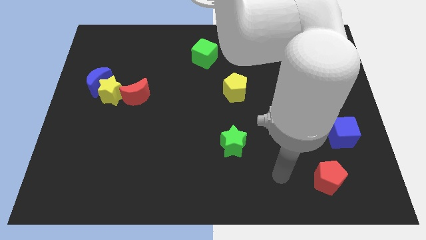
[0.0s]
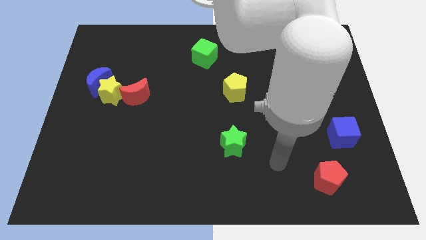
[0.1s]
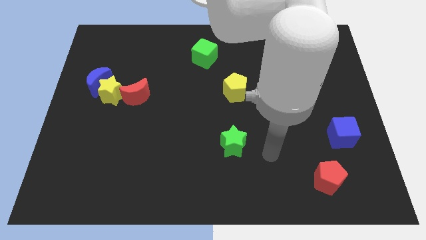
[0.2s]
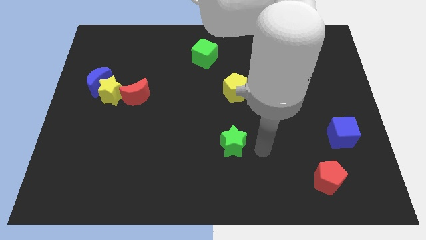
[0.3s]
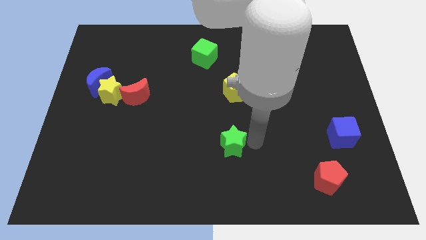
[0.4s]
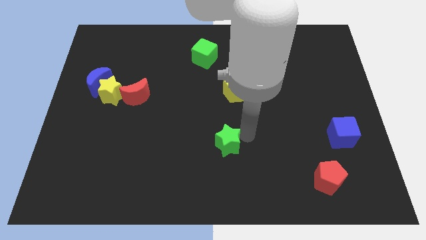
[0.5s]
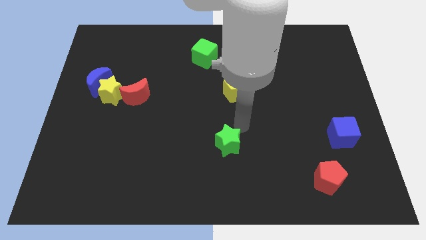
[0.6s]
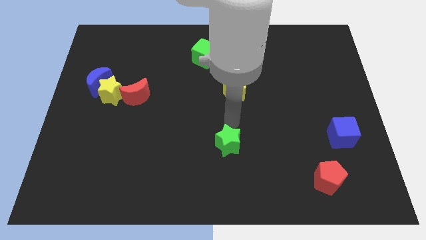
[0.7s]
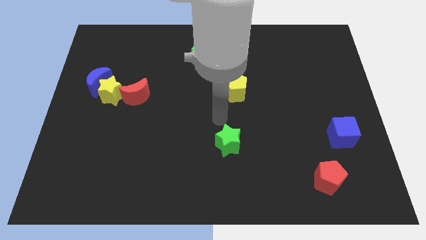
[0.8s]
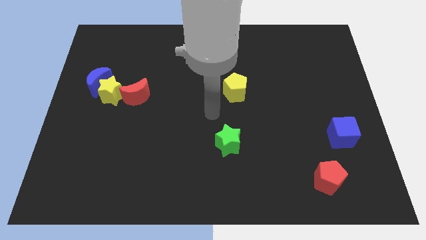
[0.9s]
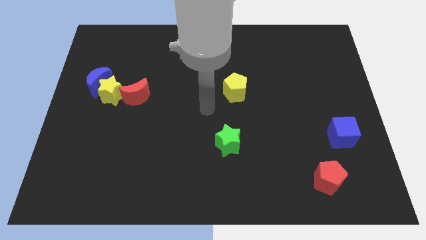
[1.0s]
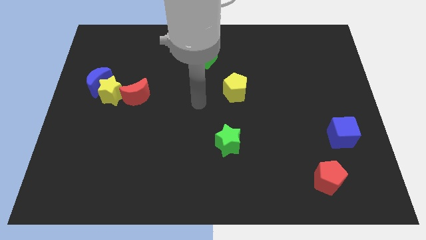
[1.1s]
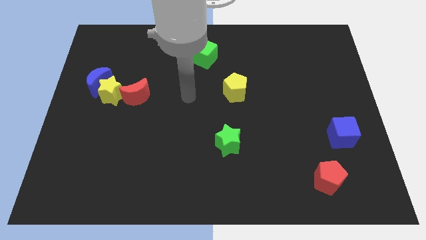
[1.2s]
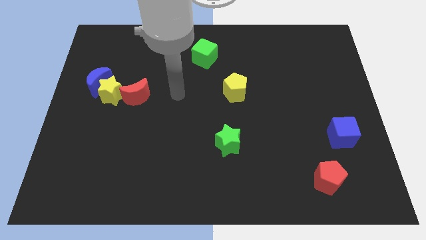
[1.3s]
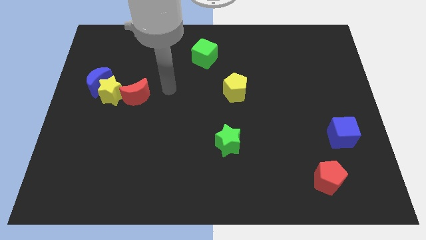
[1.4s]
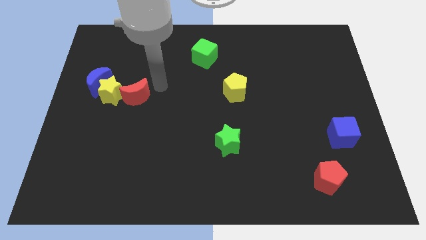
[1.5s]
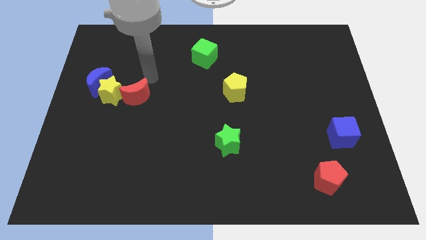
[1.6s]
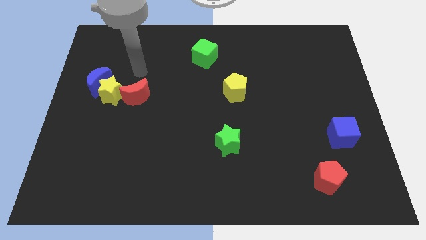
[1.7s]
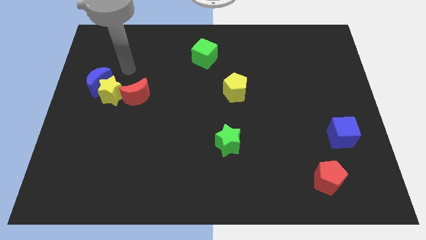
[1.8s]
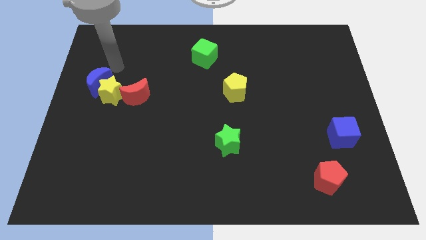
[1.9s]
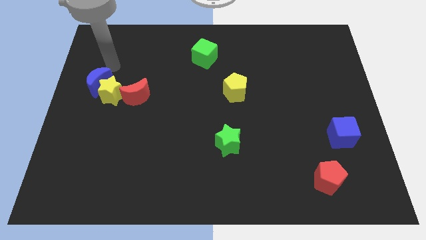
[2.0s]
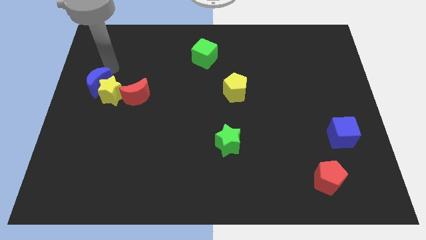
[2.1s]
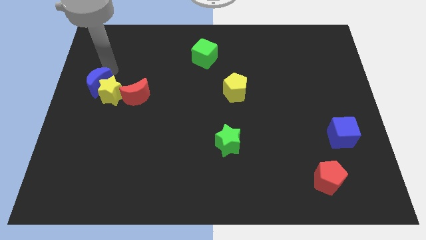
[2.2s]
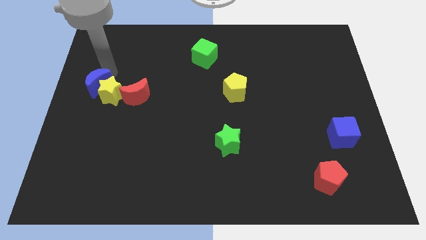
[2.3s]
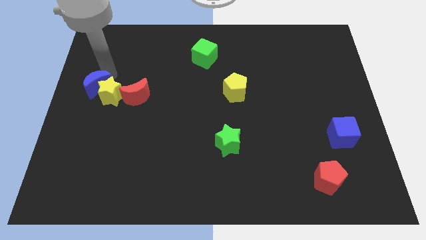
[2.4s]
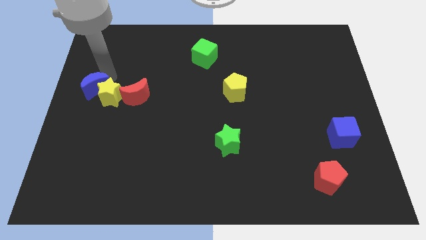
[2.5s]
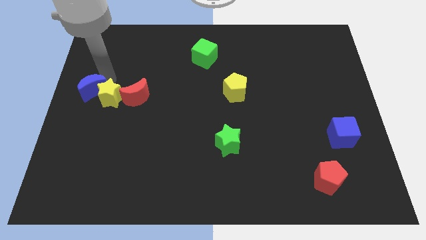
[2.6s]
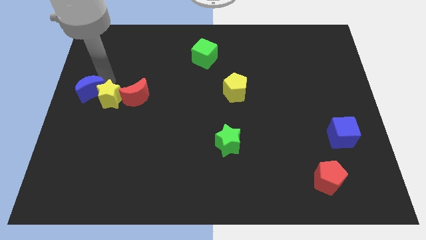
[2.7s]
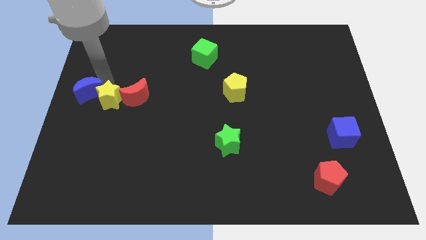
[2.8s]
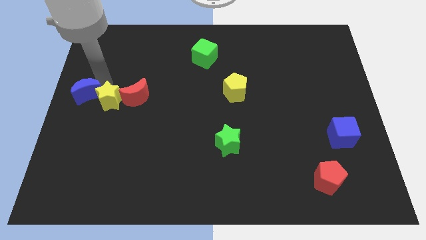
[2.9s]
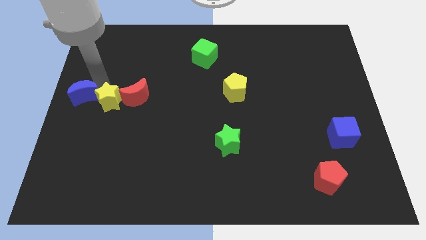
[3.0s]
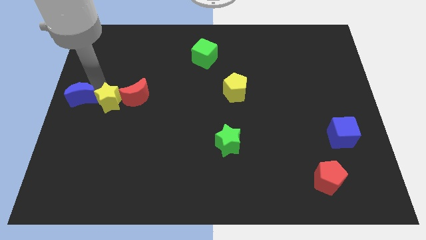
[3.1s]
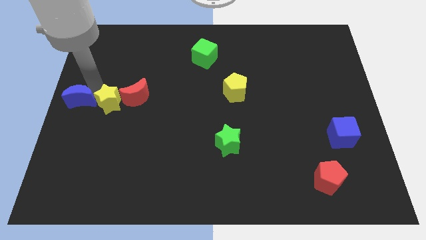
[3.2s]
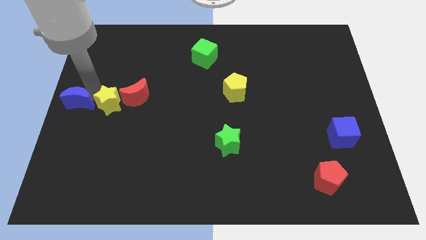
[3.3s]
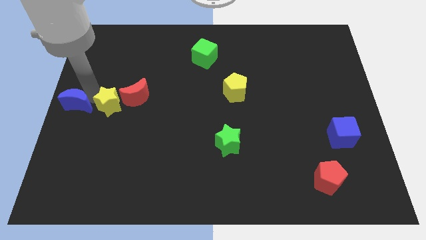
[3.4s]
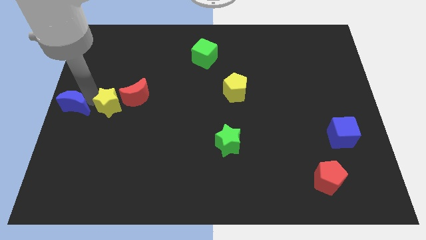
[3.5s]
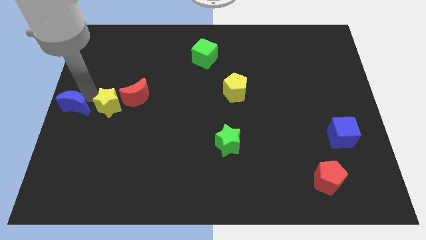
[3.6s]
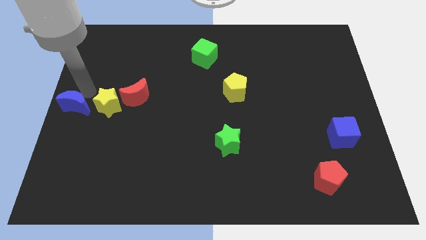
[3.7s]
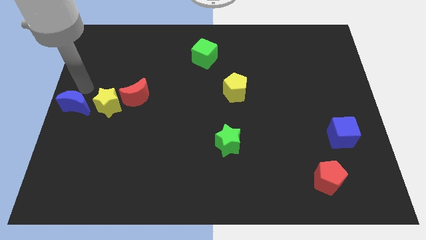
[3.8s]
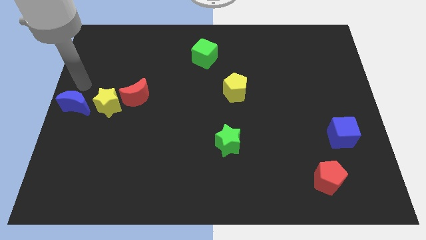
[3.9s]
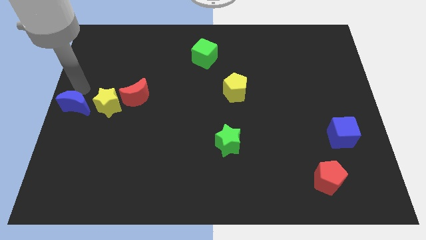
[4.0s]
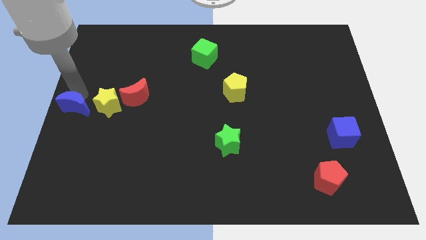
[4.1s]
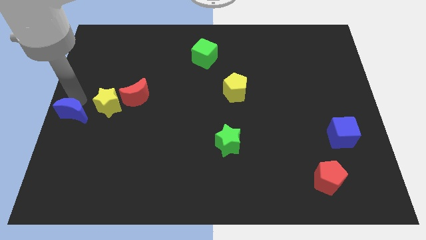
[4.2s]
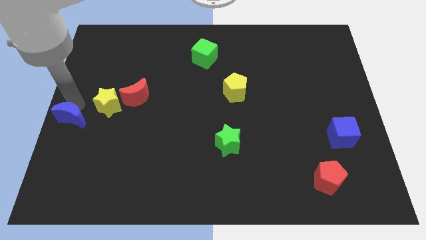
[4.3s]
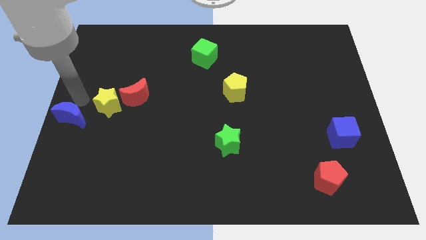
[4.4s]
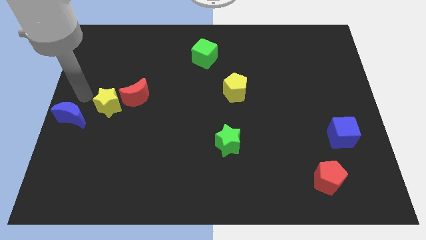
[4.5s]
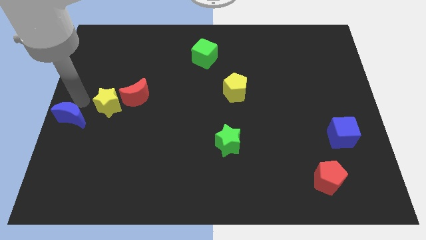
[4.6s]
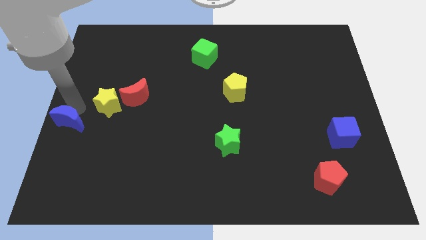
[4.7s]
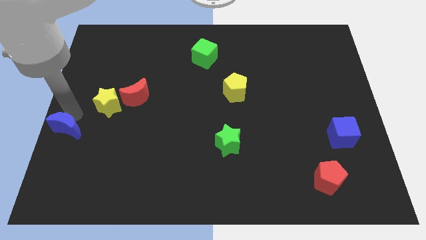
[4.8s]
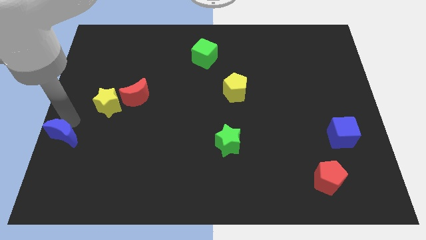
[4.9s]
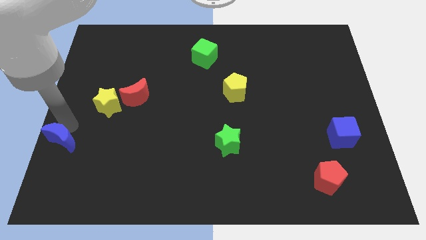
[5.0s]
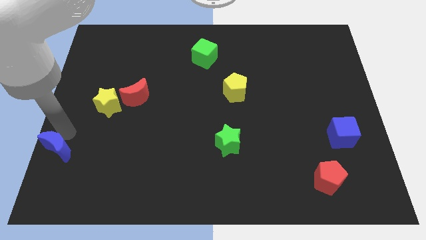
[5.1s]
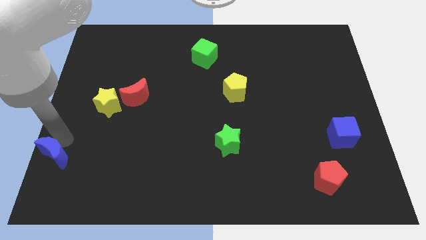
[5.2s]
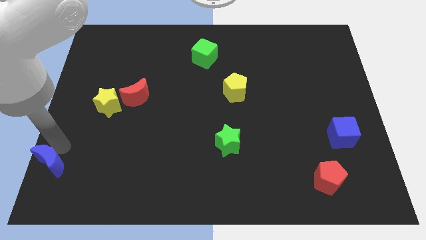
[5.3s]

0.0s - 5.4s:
slide the blue moon to the bottom left
